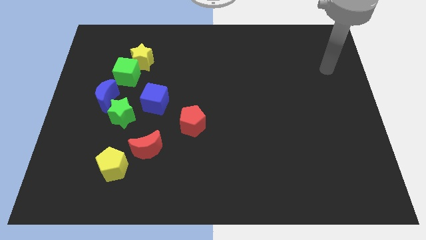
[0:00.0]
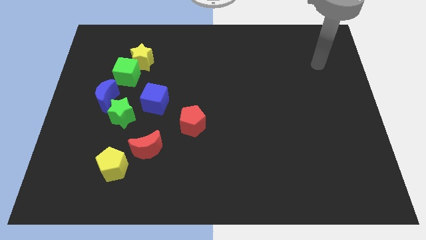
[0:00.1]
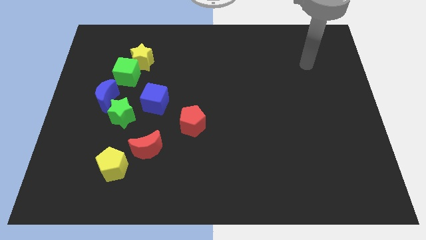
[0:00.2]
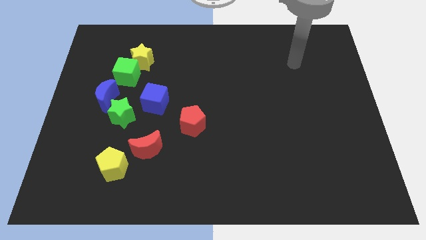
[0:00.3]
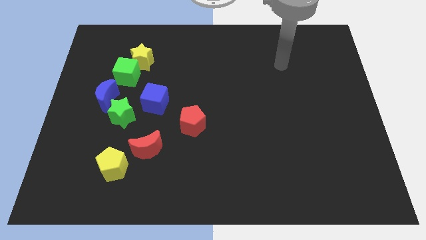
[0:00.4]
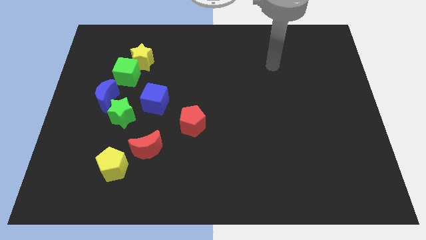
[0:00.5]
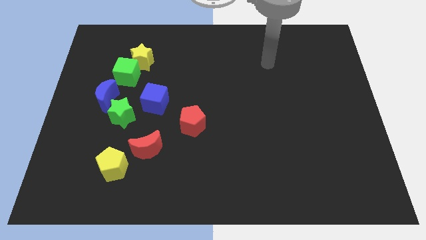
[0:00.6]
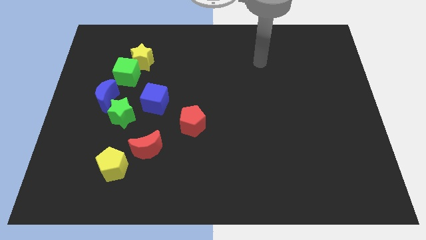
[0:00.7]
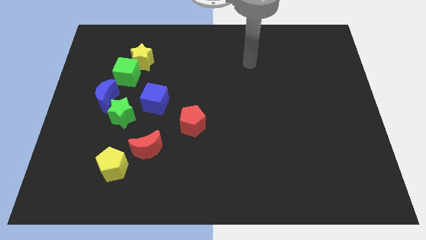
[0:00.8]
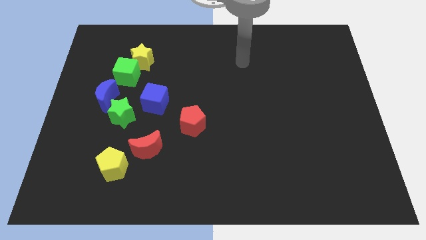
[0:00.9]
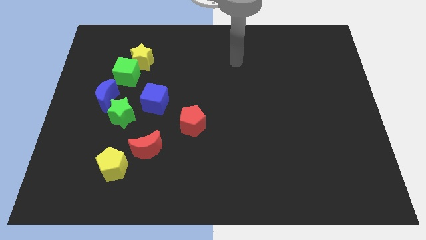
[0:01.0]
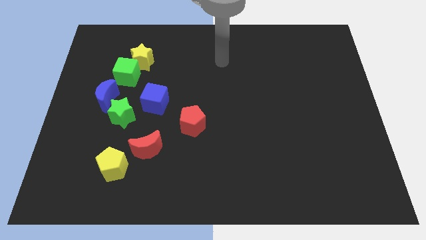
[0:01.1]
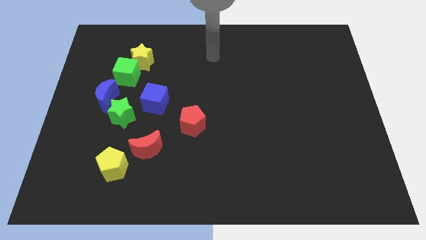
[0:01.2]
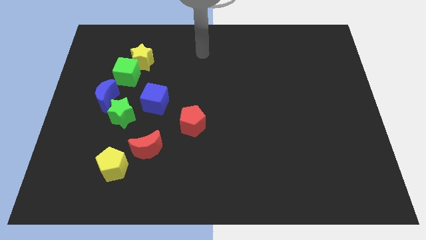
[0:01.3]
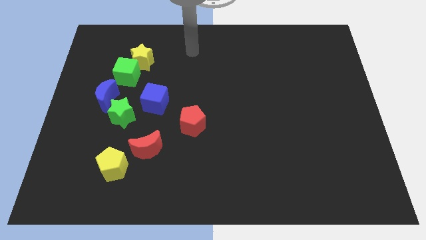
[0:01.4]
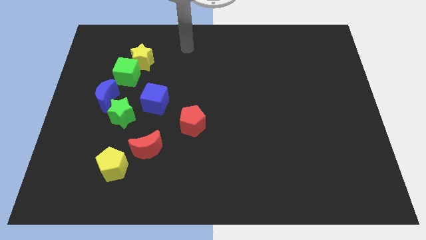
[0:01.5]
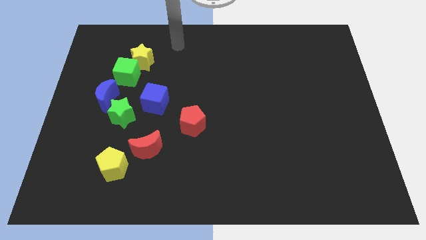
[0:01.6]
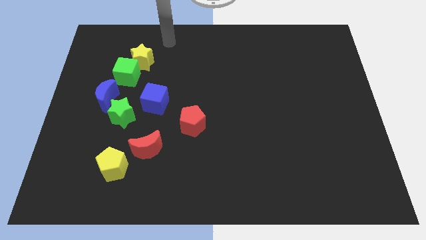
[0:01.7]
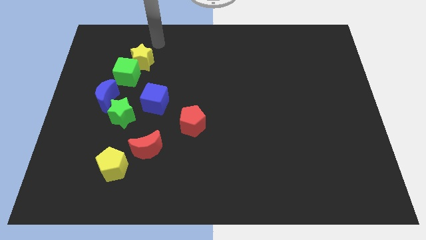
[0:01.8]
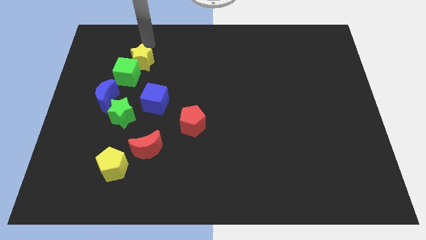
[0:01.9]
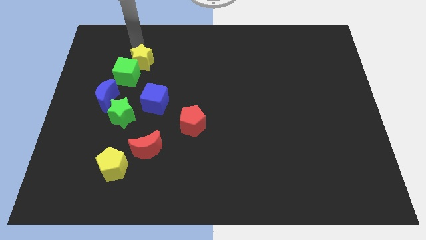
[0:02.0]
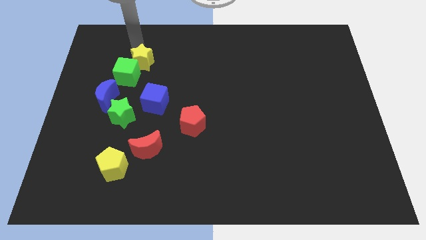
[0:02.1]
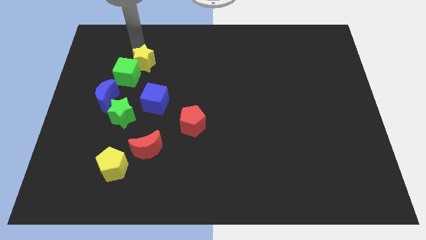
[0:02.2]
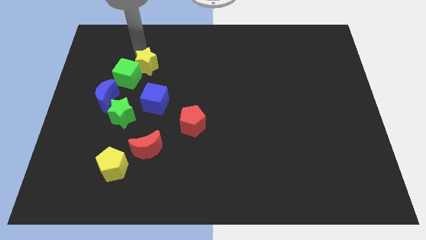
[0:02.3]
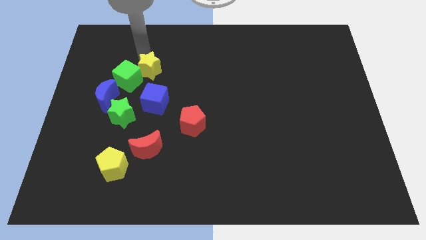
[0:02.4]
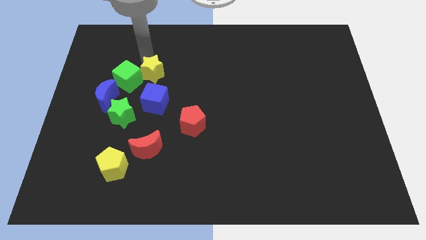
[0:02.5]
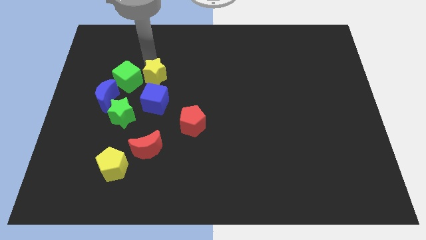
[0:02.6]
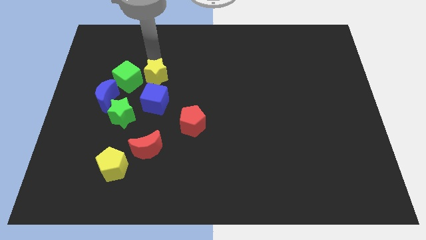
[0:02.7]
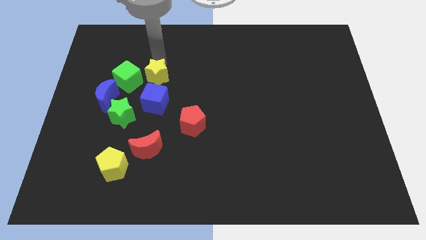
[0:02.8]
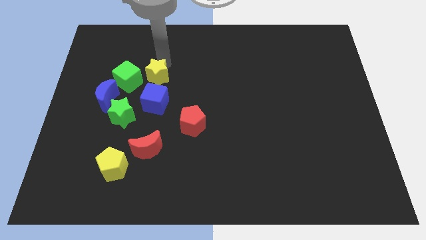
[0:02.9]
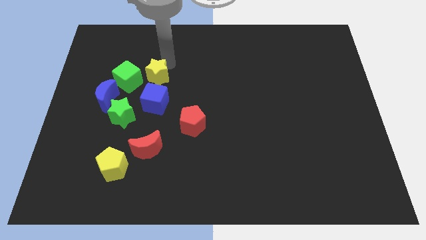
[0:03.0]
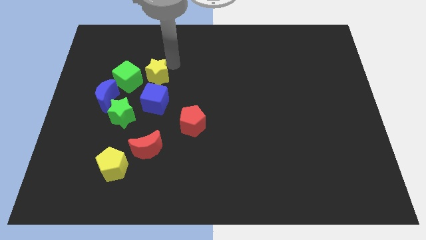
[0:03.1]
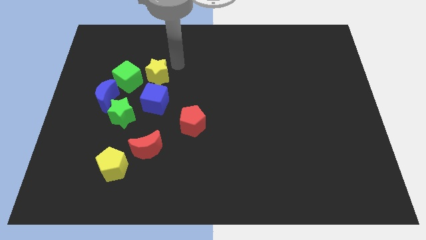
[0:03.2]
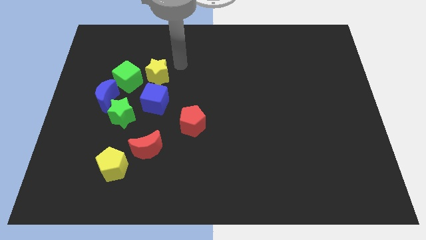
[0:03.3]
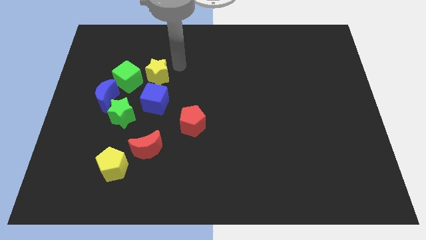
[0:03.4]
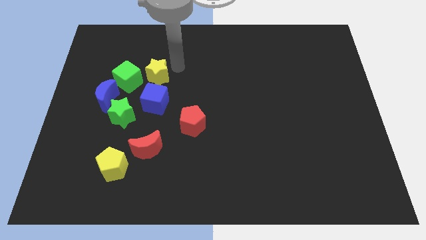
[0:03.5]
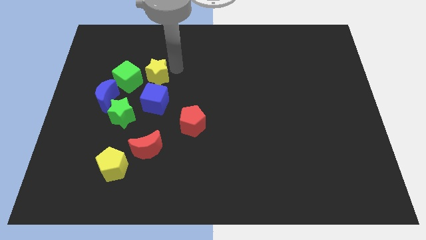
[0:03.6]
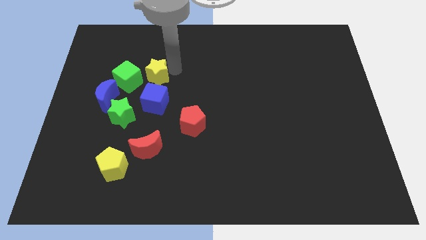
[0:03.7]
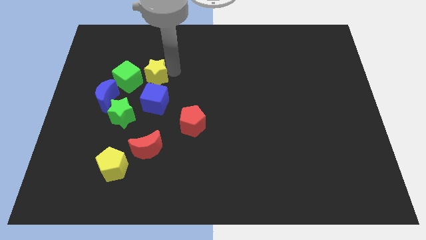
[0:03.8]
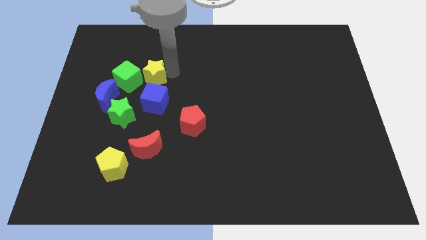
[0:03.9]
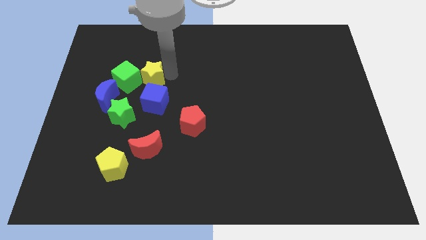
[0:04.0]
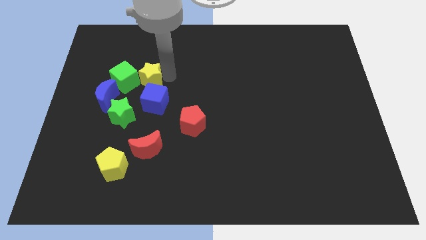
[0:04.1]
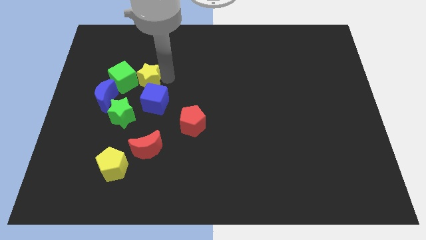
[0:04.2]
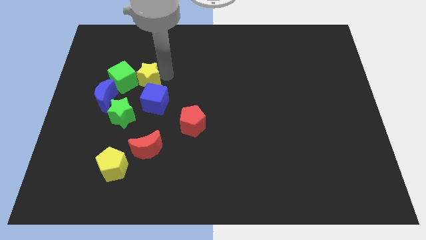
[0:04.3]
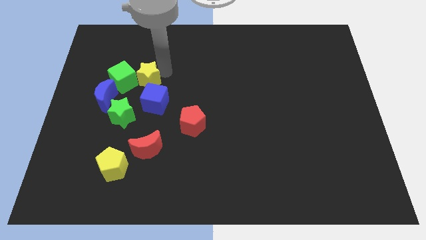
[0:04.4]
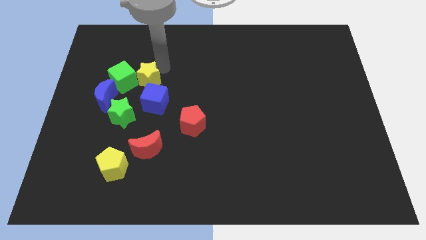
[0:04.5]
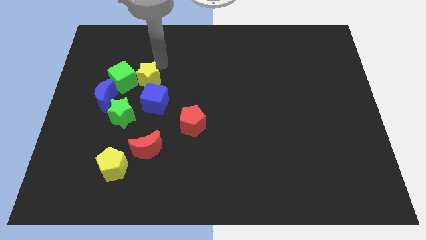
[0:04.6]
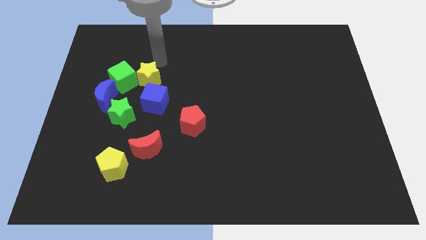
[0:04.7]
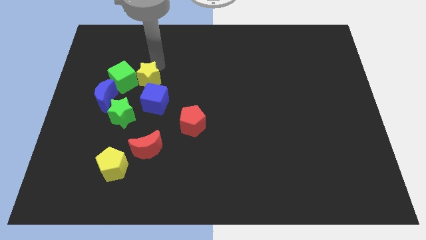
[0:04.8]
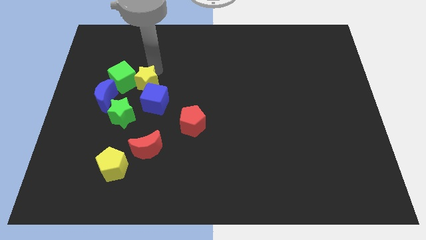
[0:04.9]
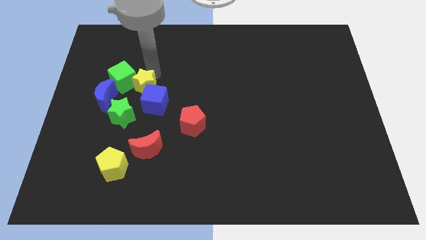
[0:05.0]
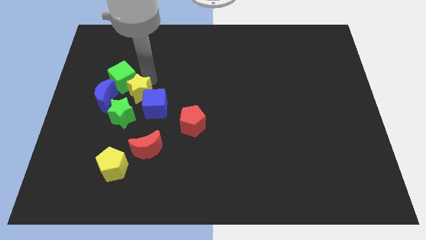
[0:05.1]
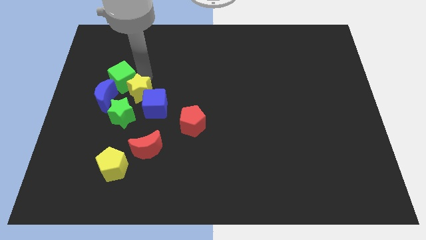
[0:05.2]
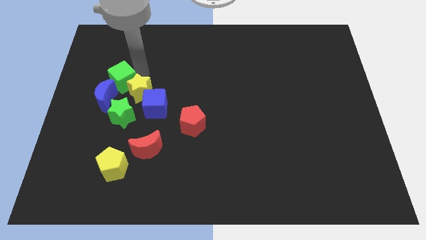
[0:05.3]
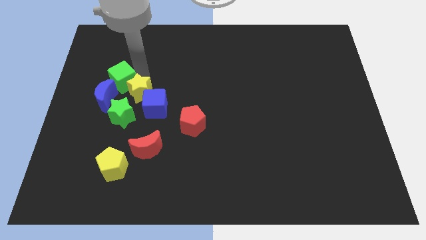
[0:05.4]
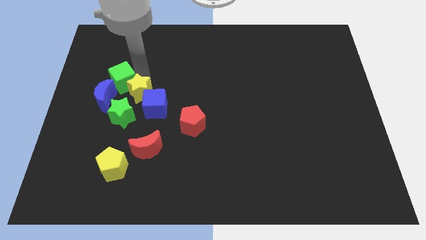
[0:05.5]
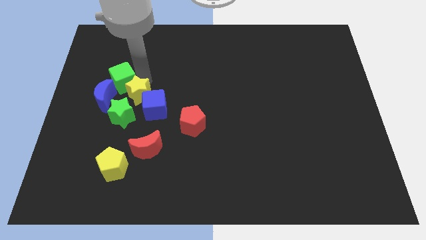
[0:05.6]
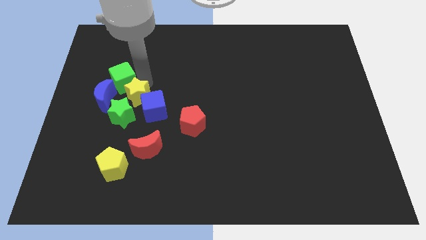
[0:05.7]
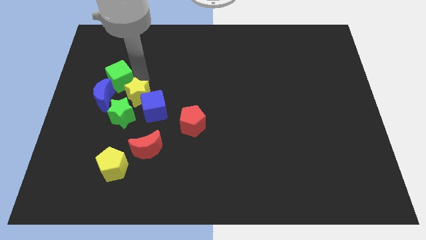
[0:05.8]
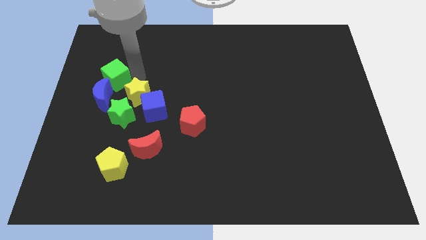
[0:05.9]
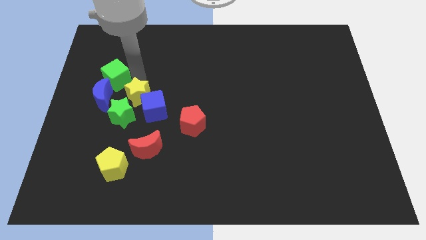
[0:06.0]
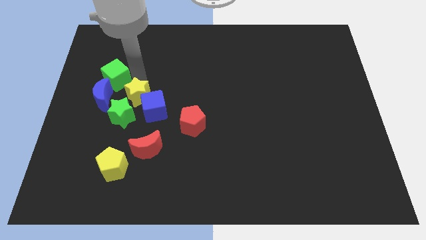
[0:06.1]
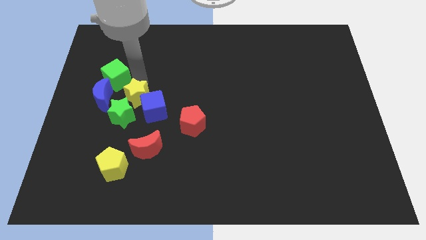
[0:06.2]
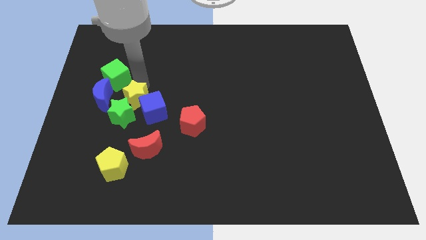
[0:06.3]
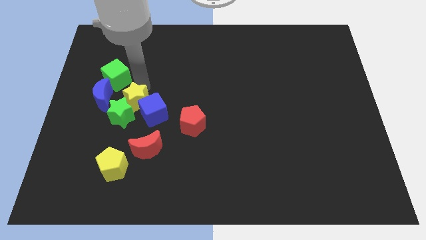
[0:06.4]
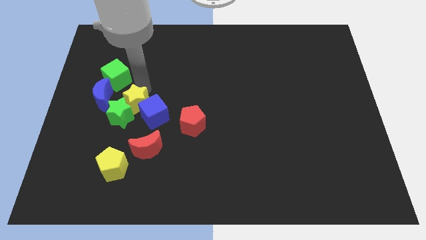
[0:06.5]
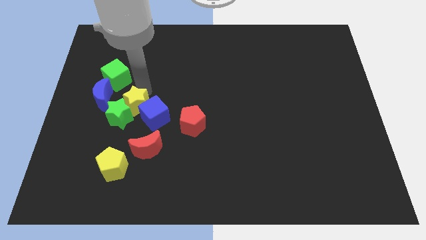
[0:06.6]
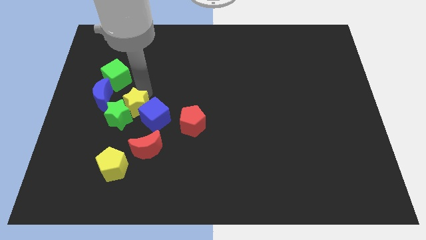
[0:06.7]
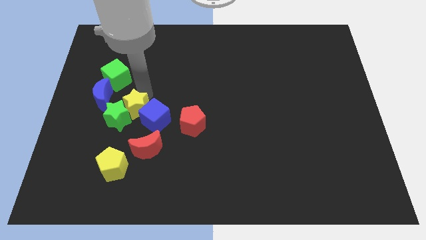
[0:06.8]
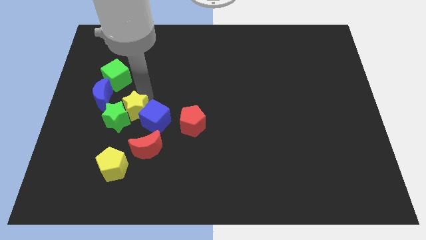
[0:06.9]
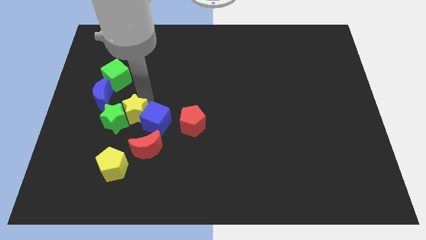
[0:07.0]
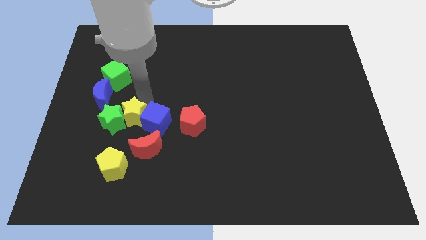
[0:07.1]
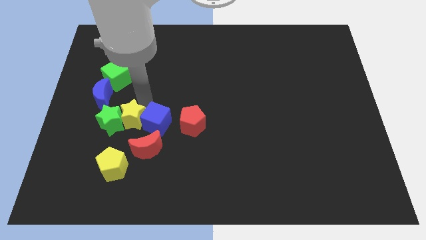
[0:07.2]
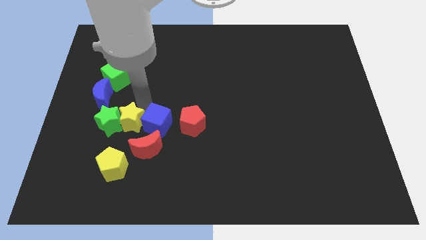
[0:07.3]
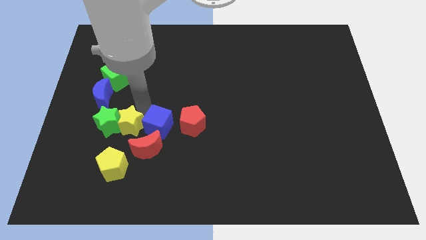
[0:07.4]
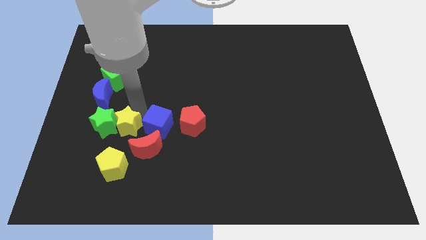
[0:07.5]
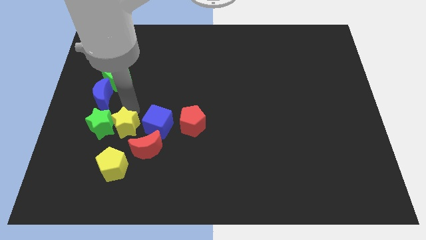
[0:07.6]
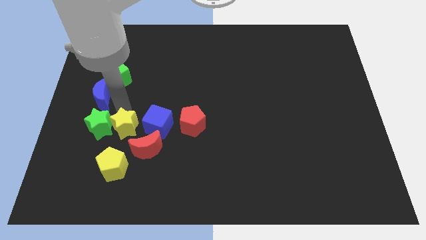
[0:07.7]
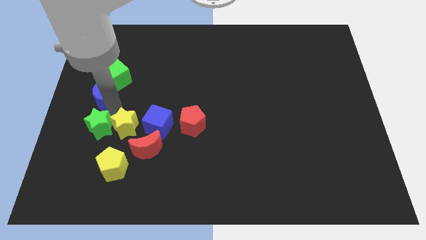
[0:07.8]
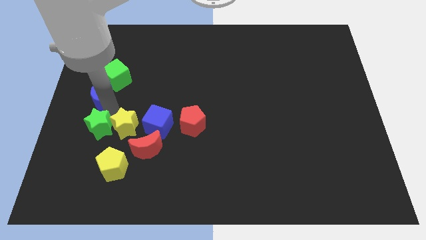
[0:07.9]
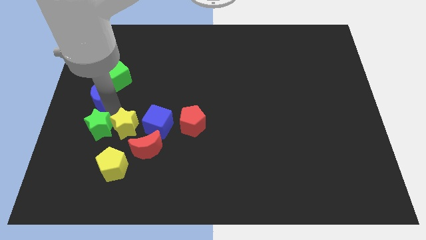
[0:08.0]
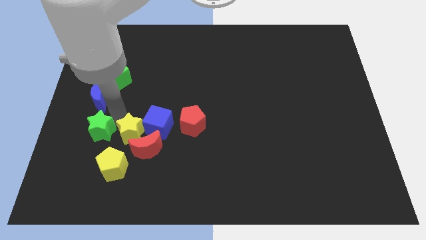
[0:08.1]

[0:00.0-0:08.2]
slide the yellow star next to the red moon
